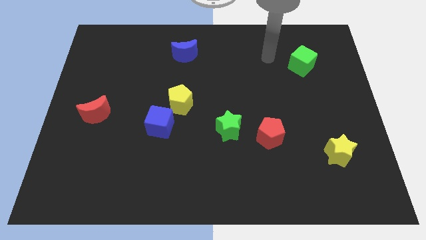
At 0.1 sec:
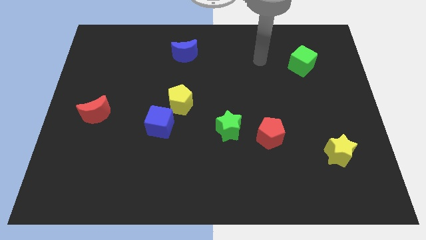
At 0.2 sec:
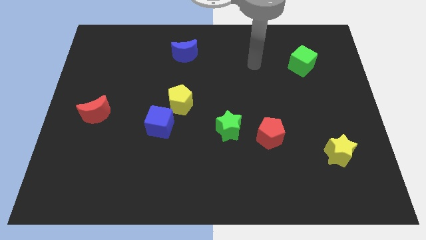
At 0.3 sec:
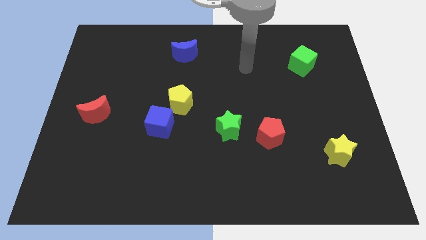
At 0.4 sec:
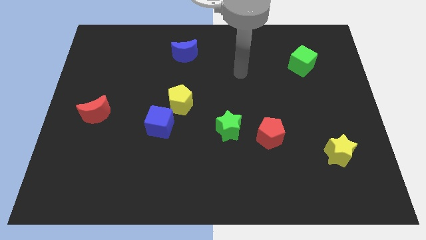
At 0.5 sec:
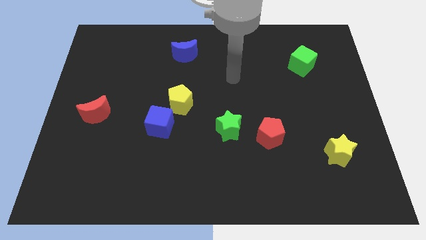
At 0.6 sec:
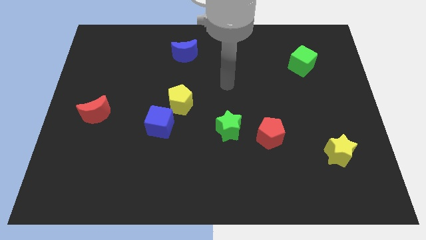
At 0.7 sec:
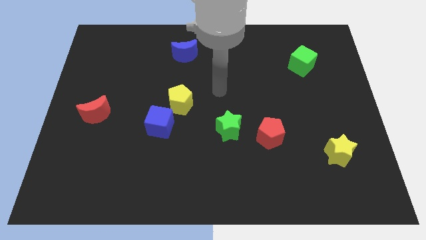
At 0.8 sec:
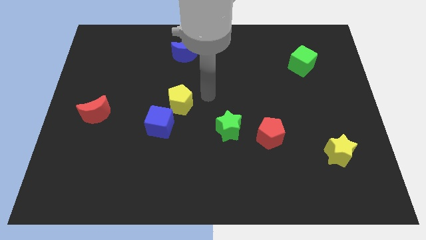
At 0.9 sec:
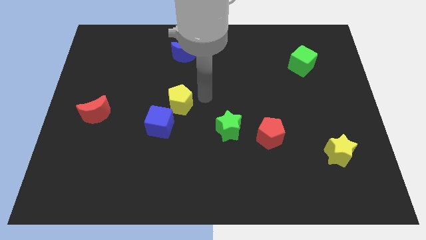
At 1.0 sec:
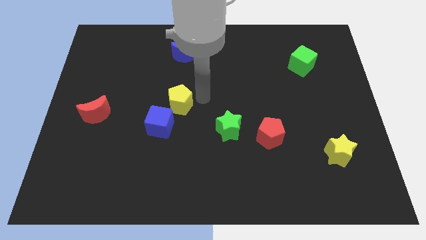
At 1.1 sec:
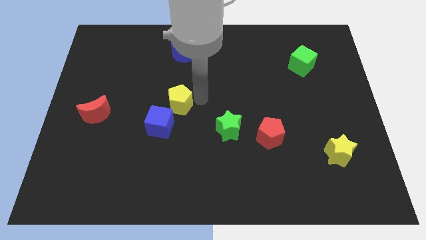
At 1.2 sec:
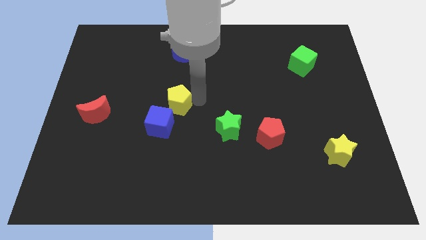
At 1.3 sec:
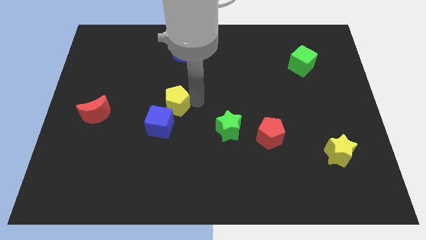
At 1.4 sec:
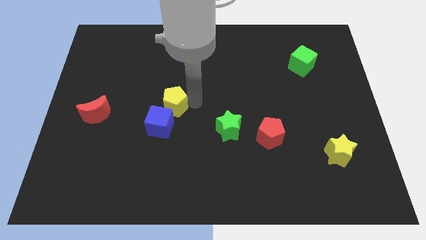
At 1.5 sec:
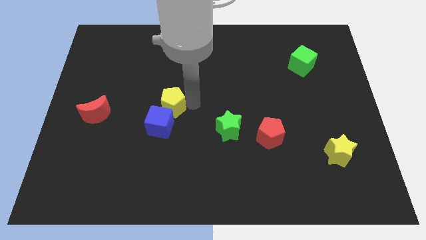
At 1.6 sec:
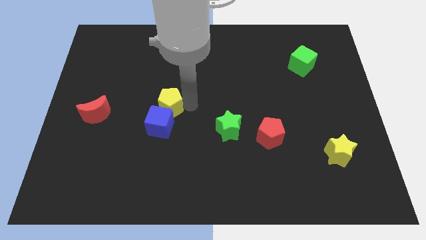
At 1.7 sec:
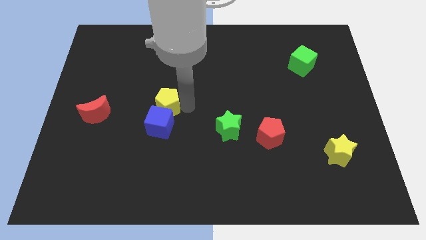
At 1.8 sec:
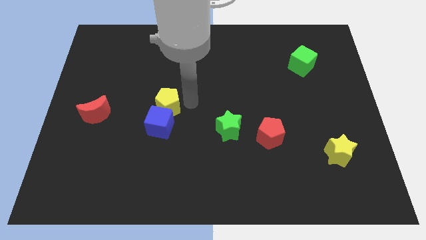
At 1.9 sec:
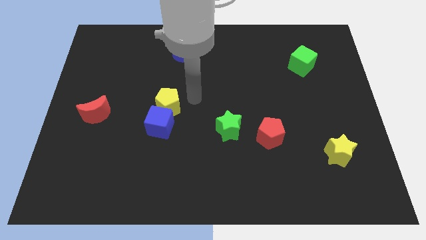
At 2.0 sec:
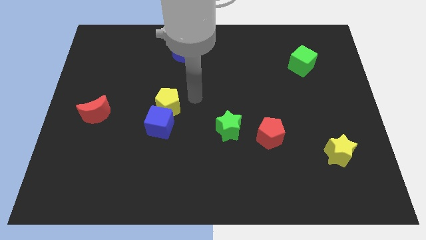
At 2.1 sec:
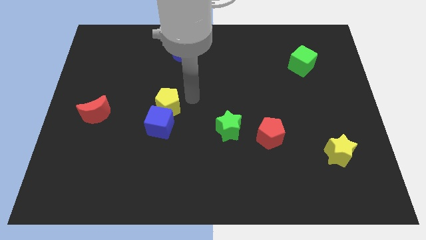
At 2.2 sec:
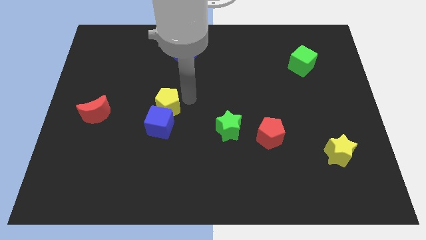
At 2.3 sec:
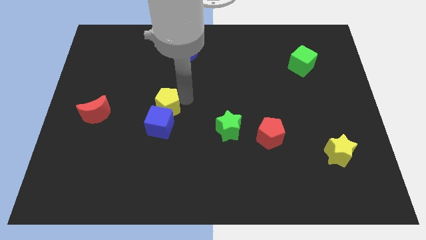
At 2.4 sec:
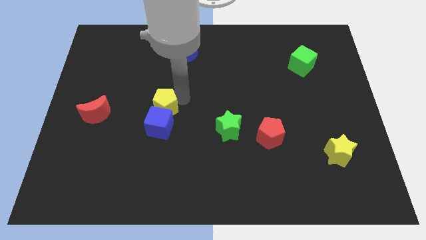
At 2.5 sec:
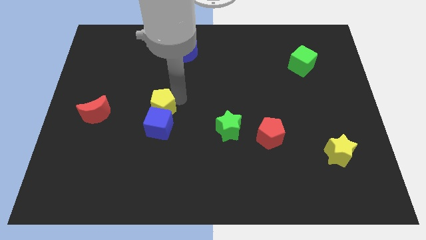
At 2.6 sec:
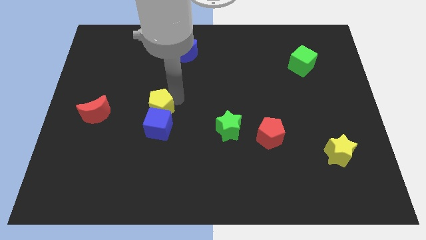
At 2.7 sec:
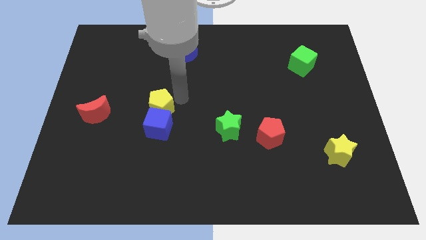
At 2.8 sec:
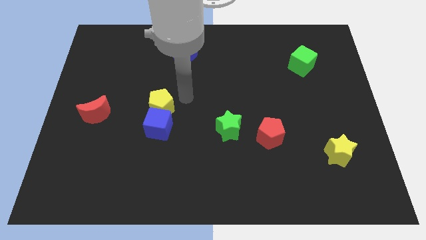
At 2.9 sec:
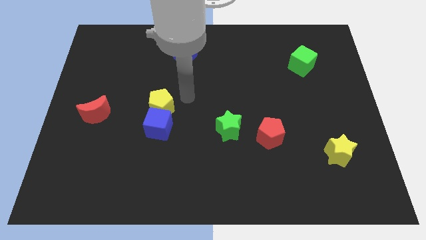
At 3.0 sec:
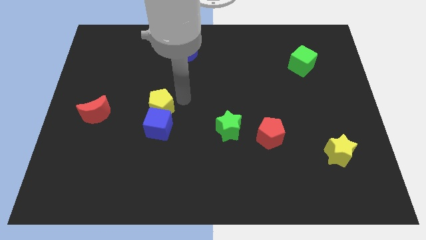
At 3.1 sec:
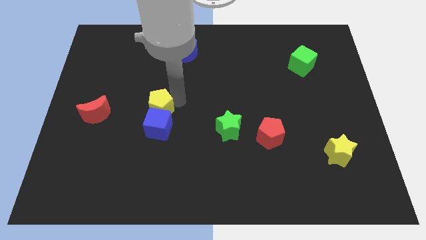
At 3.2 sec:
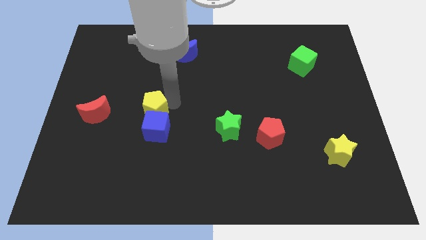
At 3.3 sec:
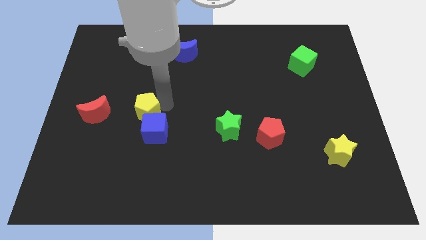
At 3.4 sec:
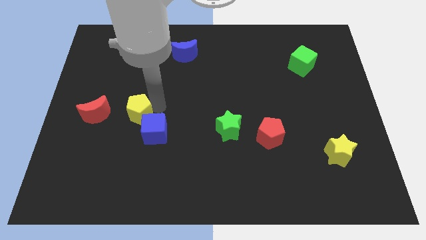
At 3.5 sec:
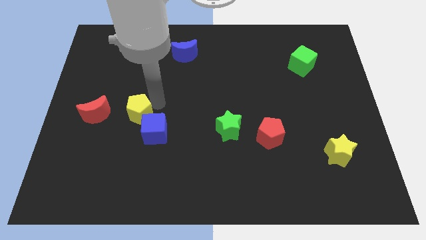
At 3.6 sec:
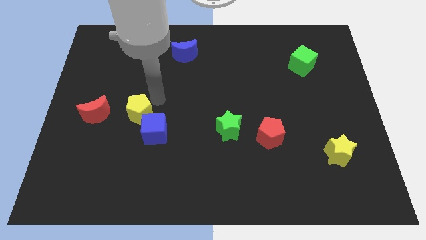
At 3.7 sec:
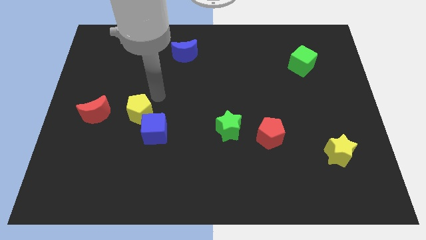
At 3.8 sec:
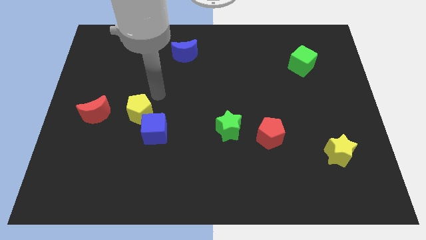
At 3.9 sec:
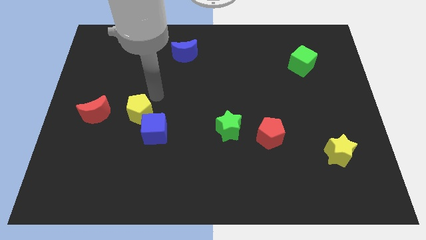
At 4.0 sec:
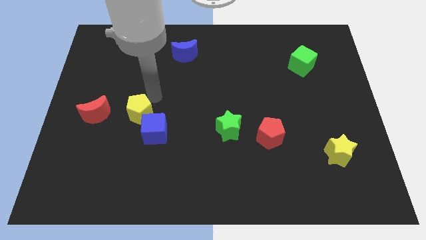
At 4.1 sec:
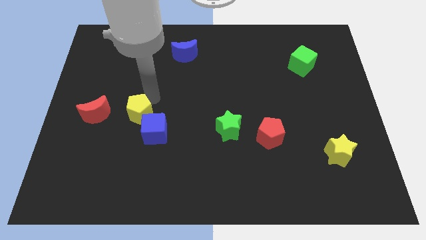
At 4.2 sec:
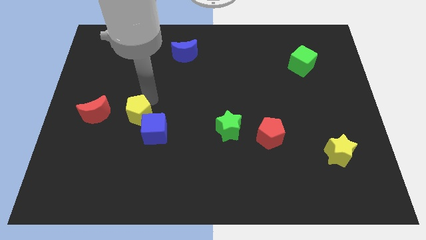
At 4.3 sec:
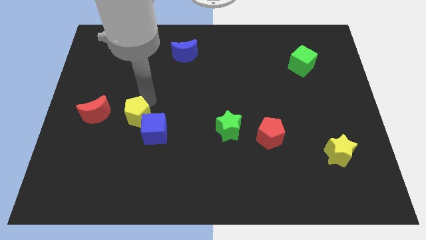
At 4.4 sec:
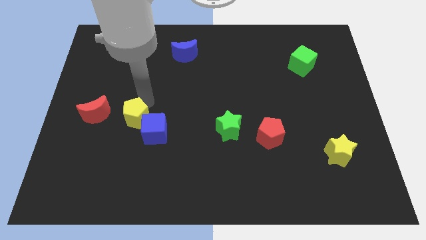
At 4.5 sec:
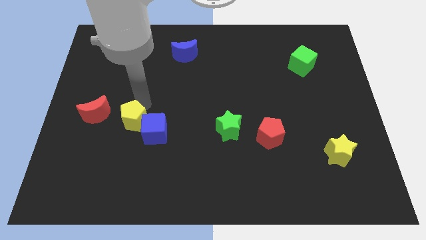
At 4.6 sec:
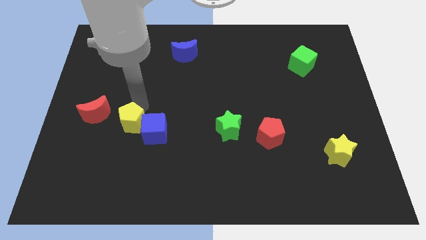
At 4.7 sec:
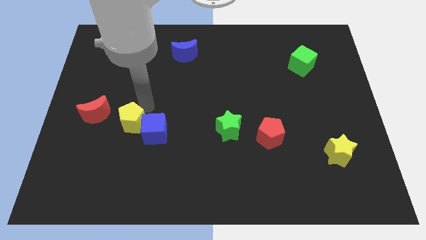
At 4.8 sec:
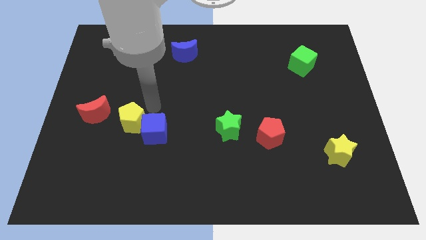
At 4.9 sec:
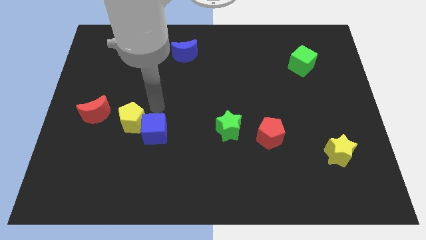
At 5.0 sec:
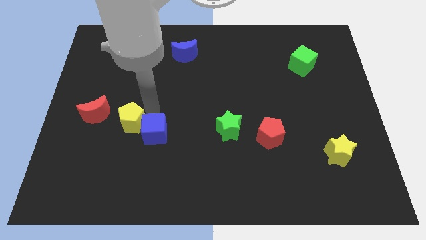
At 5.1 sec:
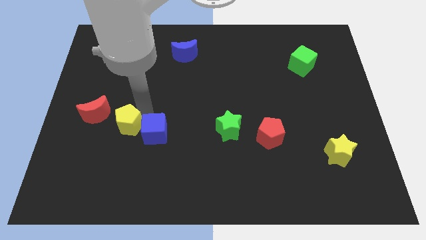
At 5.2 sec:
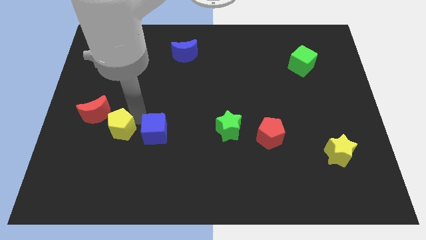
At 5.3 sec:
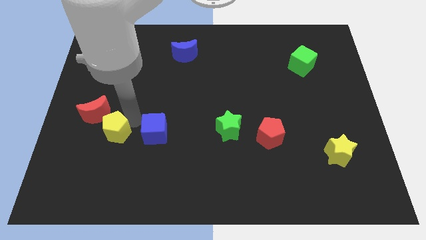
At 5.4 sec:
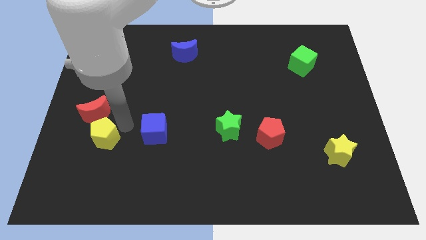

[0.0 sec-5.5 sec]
put the yellow pentagon to the bottom of the red moon

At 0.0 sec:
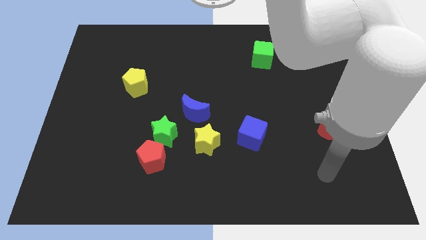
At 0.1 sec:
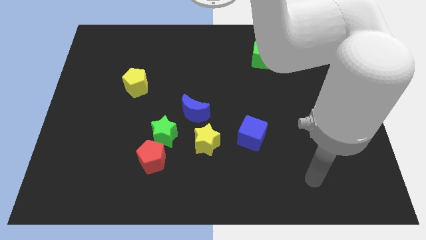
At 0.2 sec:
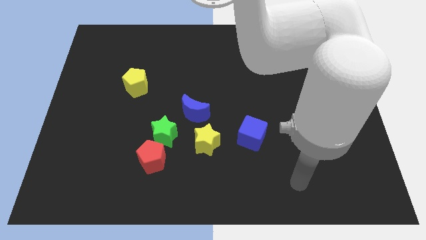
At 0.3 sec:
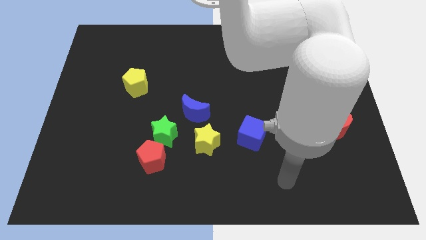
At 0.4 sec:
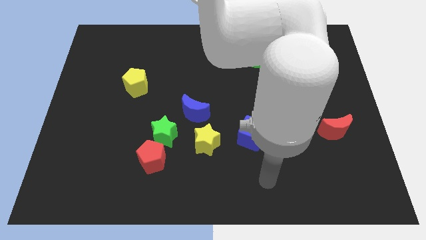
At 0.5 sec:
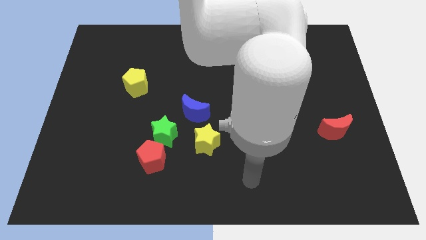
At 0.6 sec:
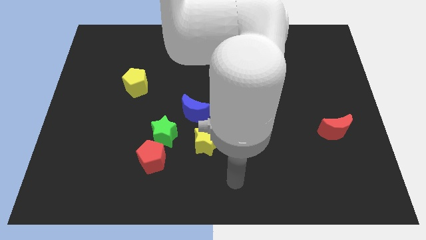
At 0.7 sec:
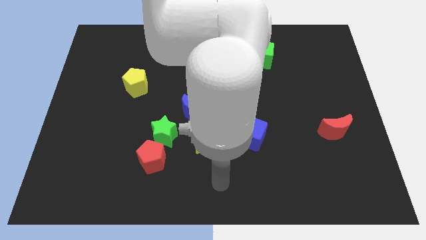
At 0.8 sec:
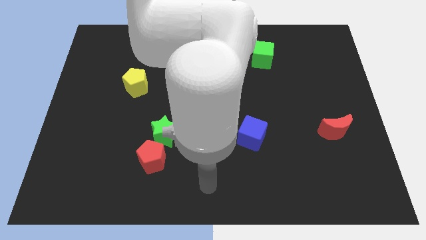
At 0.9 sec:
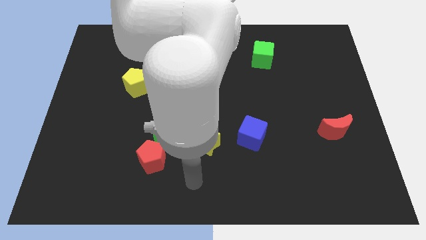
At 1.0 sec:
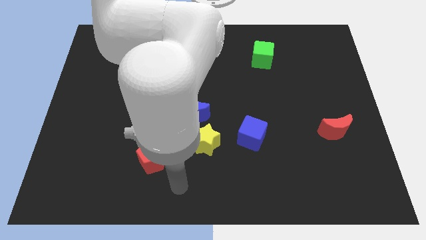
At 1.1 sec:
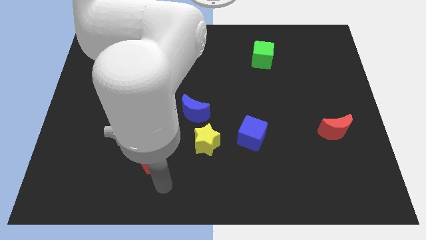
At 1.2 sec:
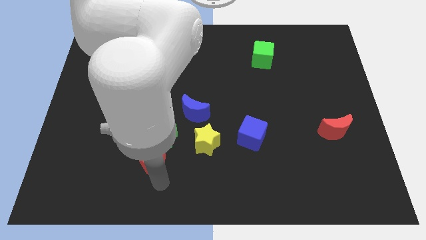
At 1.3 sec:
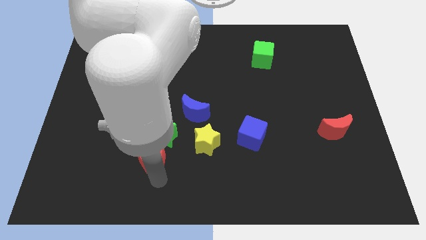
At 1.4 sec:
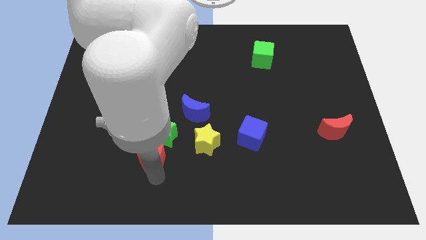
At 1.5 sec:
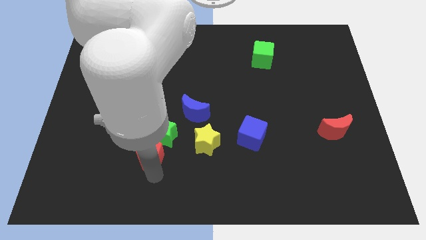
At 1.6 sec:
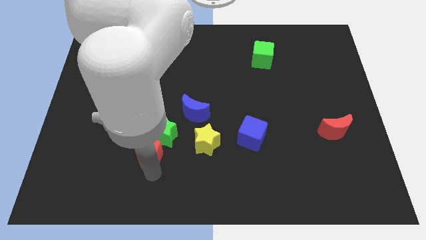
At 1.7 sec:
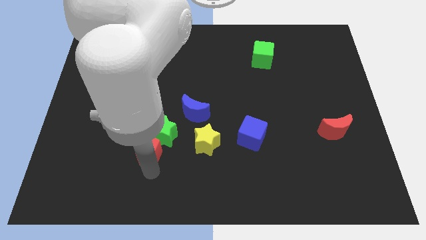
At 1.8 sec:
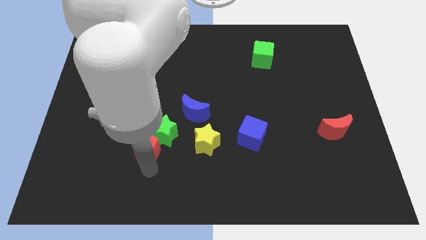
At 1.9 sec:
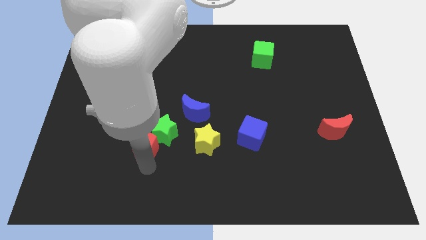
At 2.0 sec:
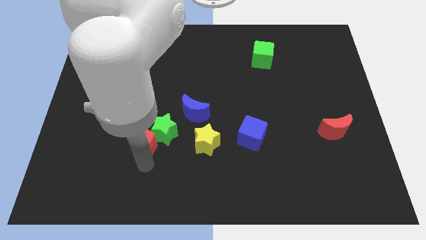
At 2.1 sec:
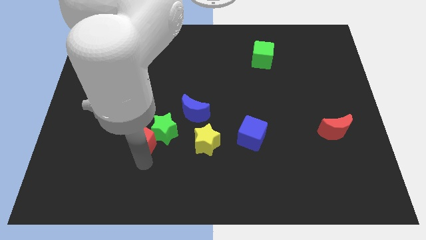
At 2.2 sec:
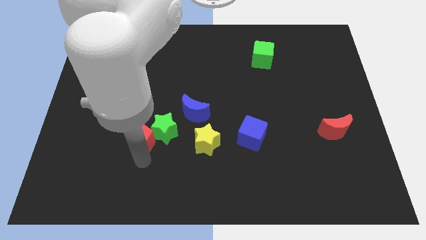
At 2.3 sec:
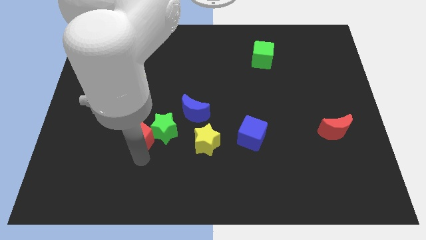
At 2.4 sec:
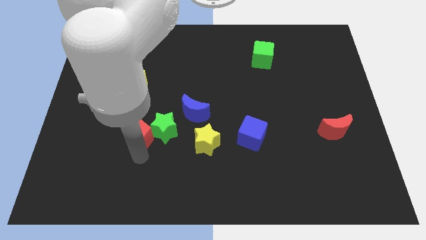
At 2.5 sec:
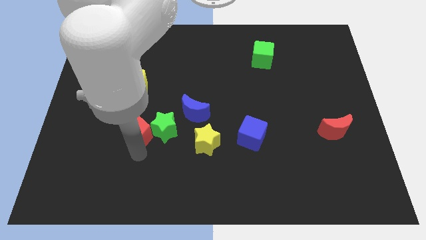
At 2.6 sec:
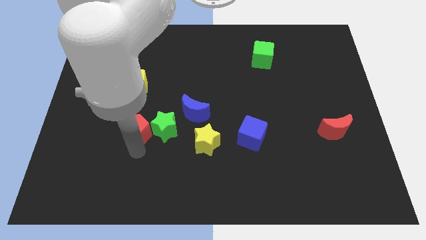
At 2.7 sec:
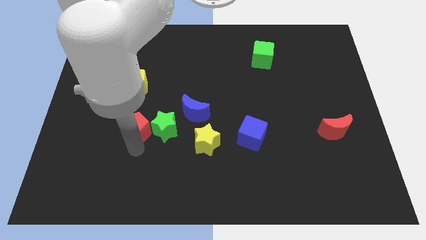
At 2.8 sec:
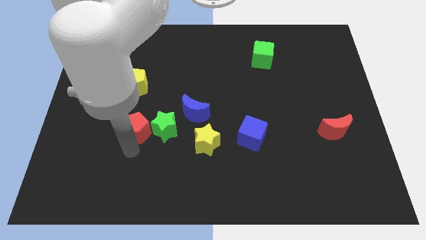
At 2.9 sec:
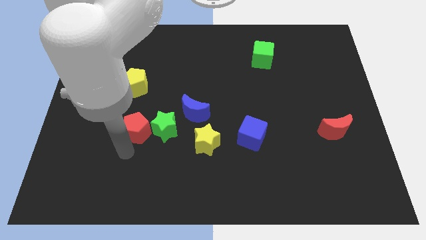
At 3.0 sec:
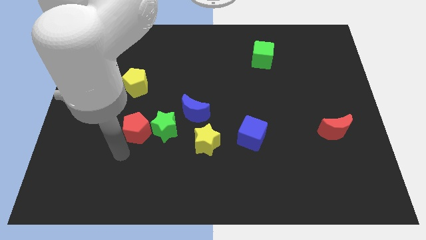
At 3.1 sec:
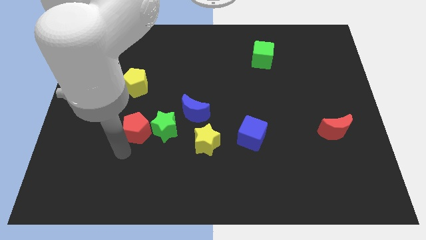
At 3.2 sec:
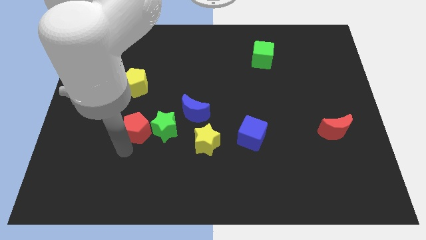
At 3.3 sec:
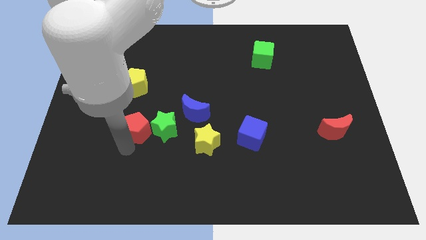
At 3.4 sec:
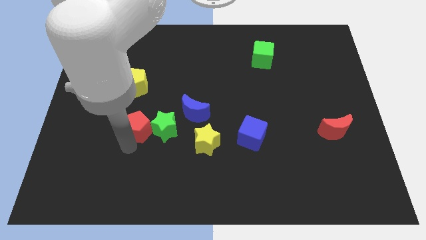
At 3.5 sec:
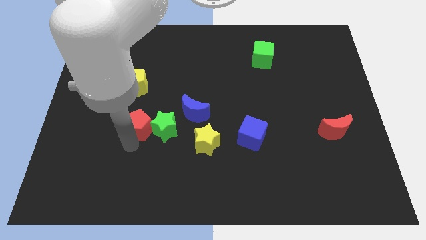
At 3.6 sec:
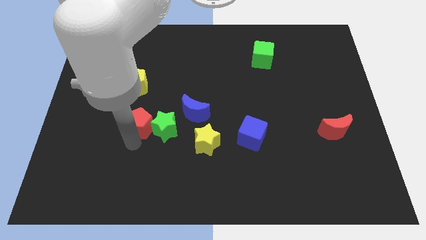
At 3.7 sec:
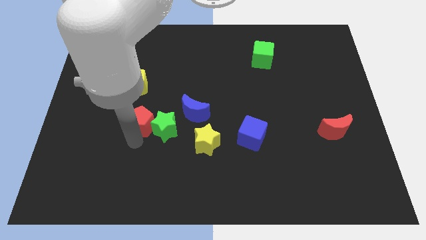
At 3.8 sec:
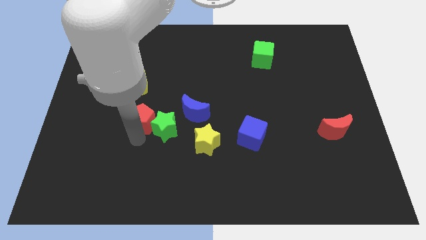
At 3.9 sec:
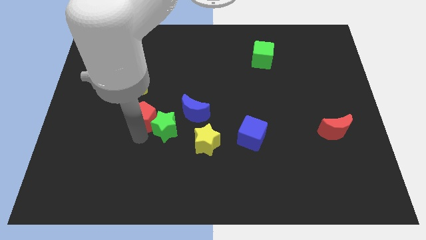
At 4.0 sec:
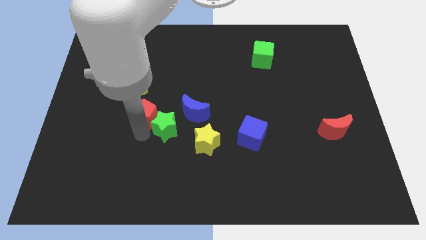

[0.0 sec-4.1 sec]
move the red pentagon to the bottom right side of the yellow pentagon
